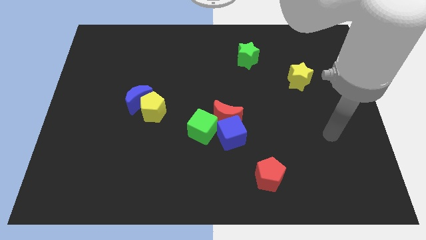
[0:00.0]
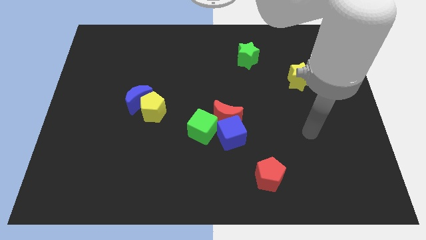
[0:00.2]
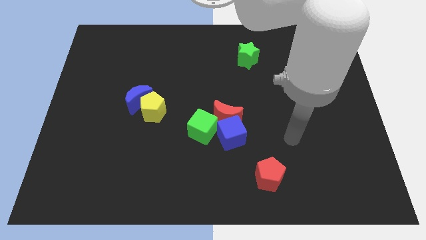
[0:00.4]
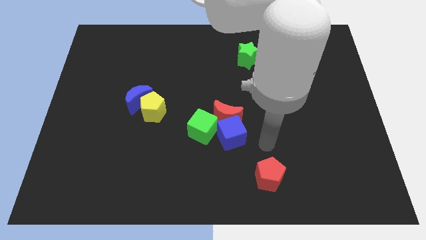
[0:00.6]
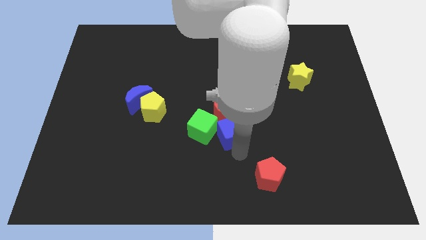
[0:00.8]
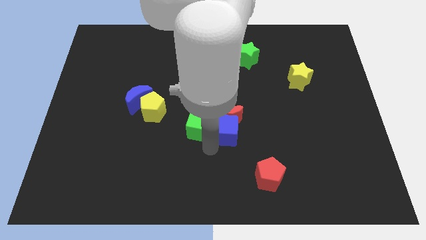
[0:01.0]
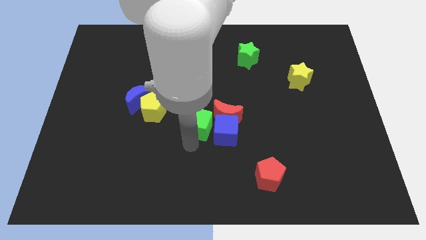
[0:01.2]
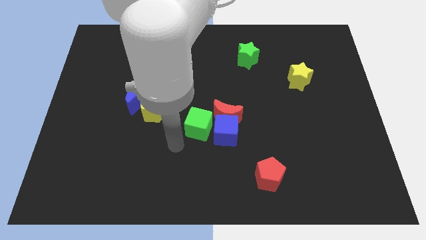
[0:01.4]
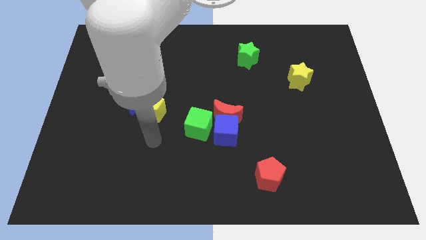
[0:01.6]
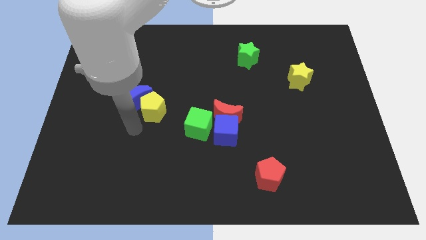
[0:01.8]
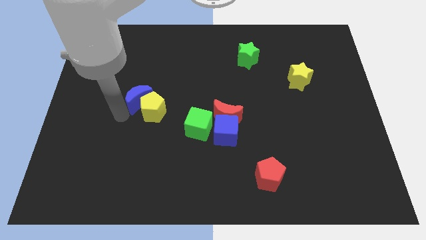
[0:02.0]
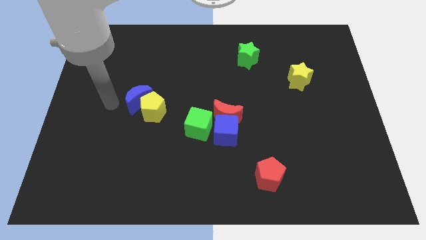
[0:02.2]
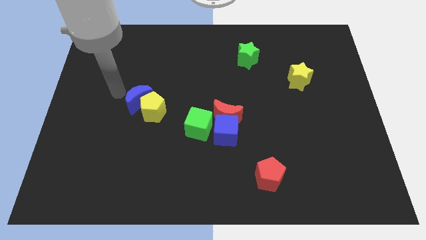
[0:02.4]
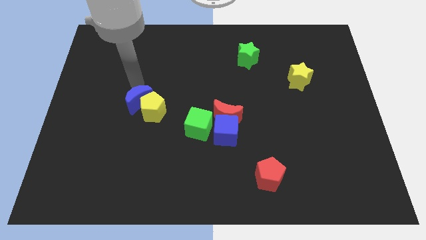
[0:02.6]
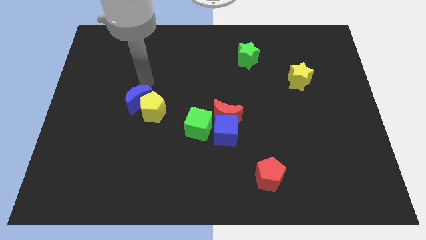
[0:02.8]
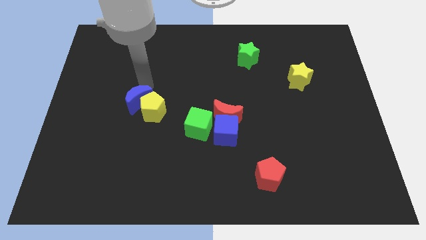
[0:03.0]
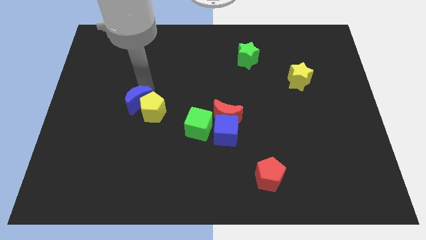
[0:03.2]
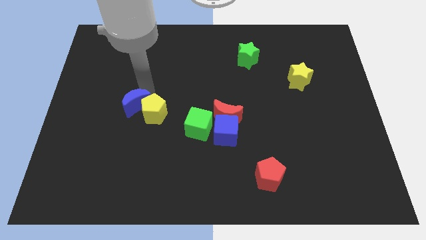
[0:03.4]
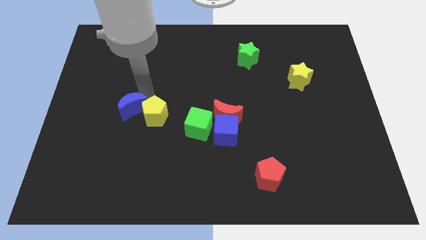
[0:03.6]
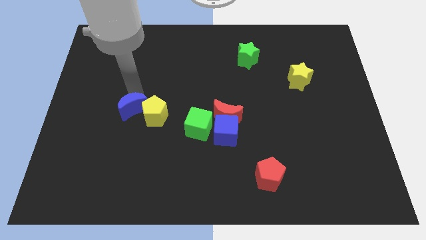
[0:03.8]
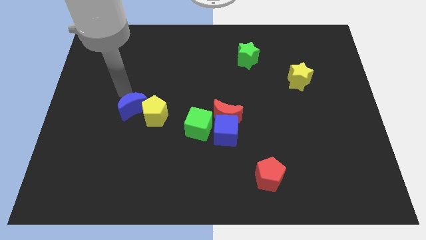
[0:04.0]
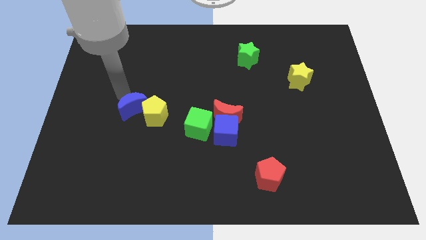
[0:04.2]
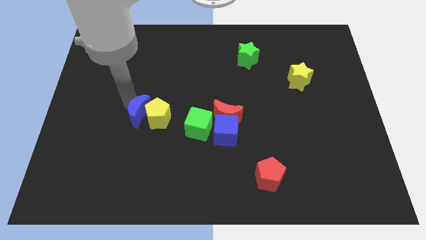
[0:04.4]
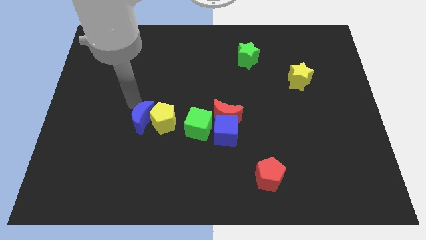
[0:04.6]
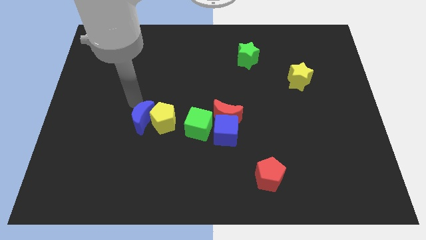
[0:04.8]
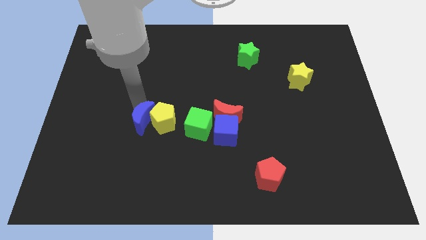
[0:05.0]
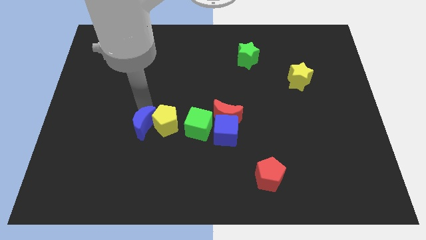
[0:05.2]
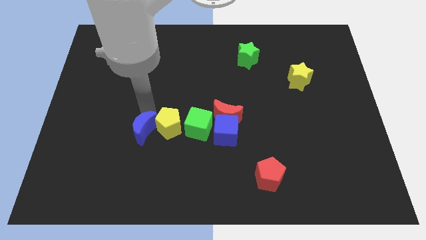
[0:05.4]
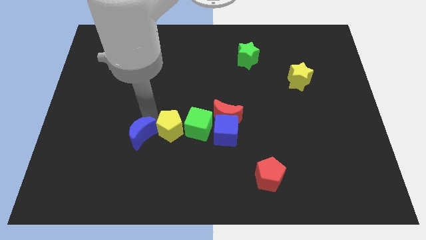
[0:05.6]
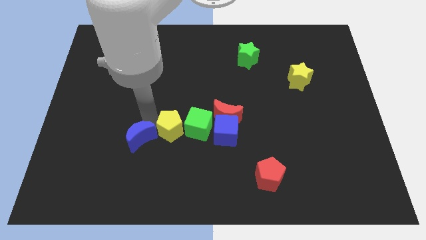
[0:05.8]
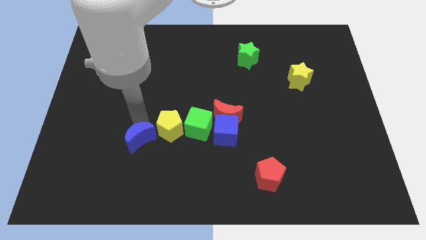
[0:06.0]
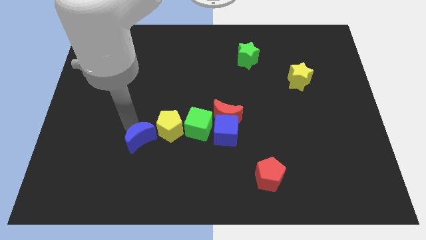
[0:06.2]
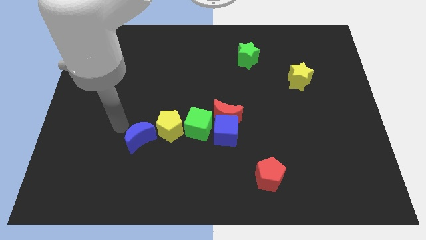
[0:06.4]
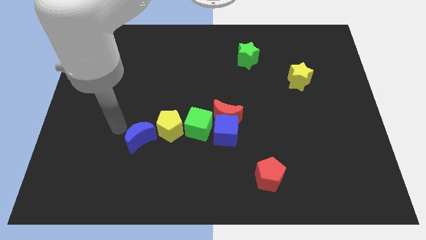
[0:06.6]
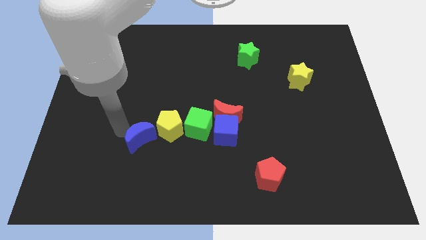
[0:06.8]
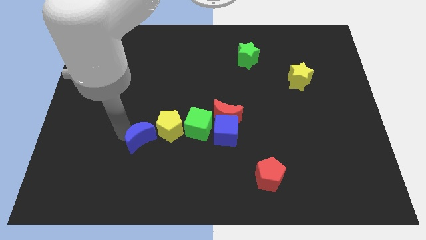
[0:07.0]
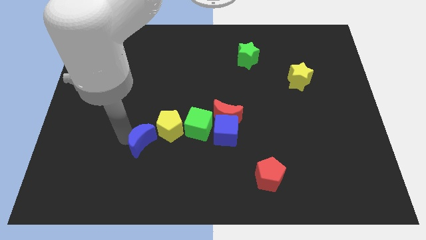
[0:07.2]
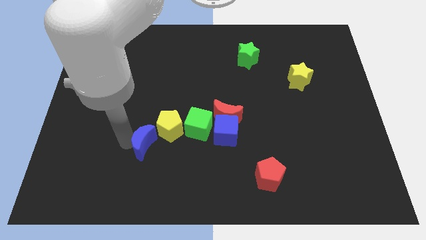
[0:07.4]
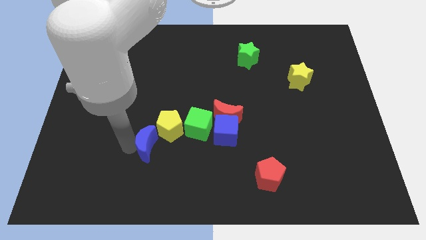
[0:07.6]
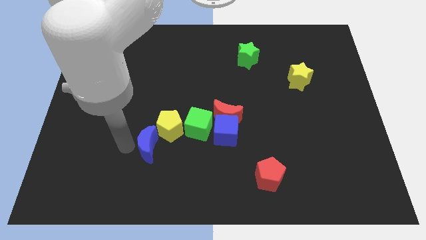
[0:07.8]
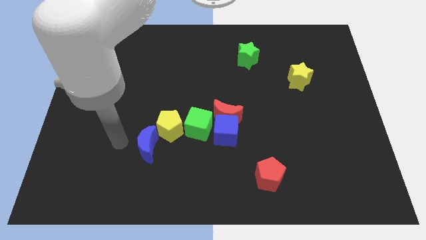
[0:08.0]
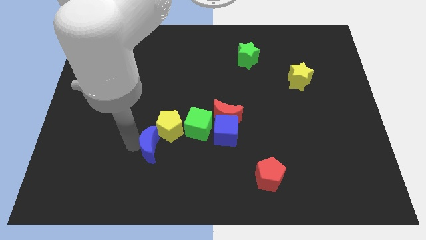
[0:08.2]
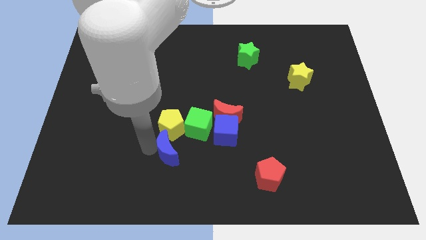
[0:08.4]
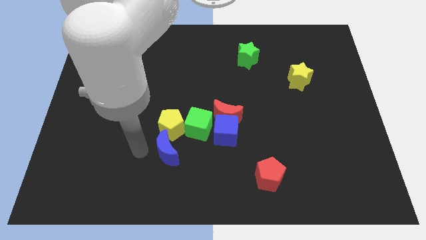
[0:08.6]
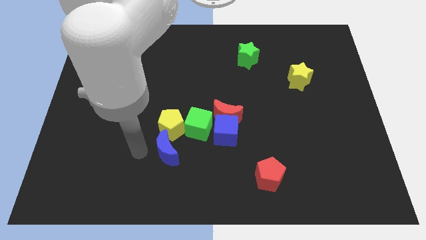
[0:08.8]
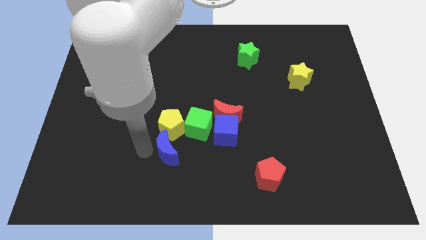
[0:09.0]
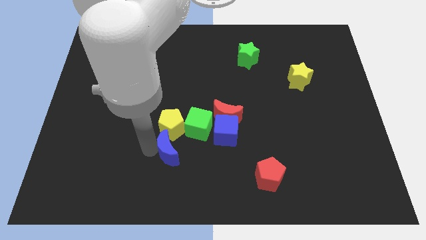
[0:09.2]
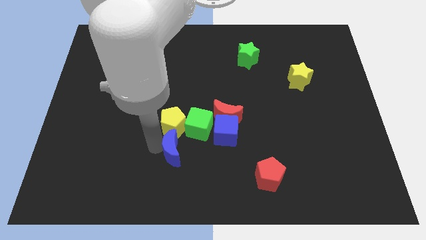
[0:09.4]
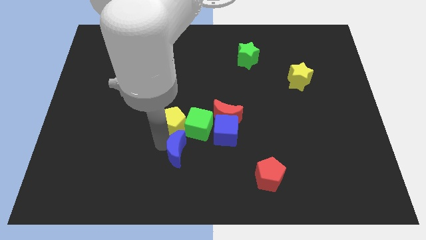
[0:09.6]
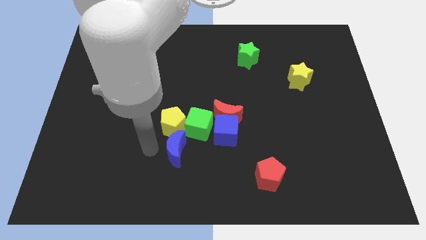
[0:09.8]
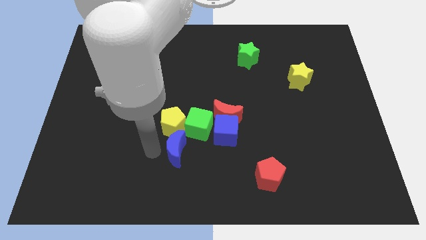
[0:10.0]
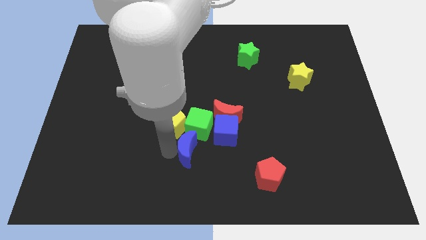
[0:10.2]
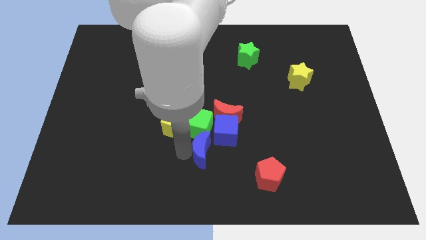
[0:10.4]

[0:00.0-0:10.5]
move the blue moon to the bottom right side of the green cube

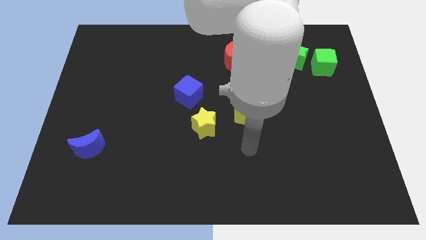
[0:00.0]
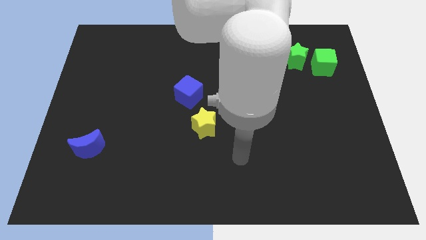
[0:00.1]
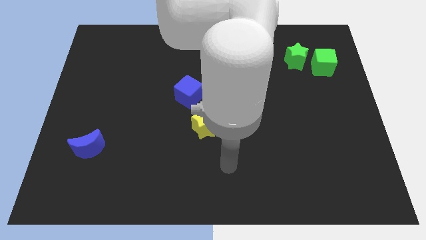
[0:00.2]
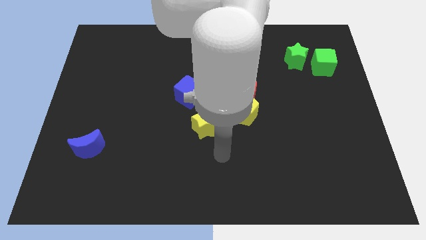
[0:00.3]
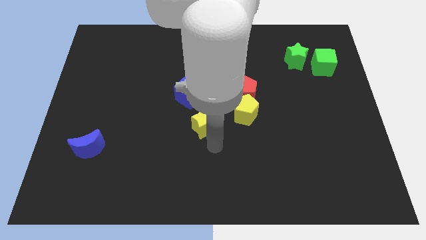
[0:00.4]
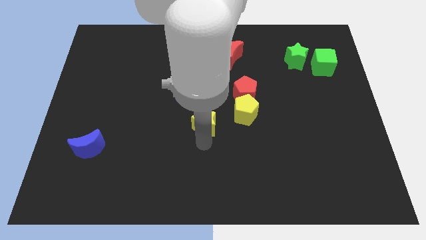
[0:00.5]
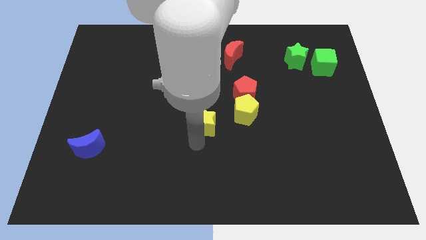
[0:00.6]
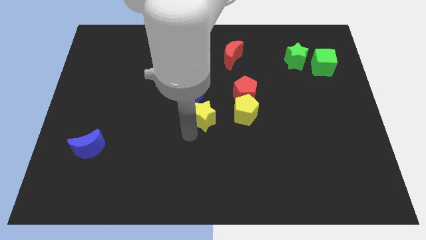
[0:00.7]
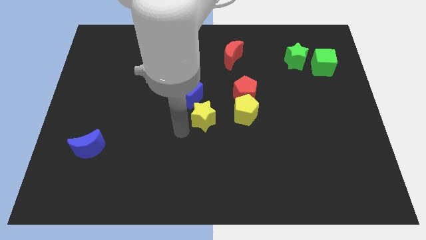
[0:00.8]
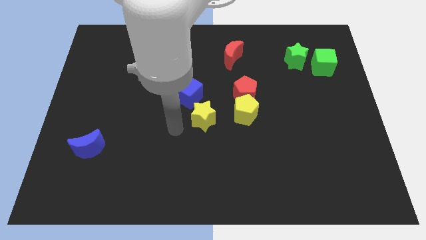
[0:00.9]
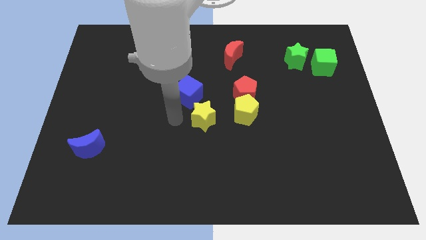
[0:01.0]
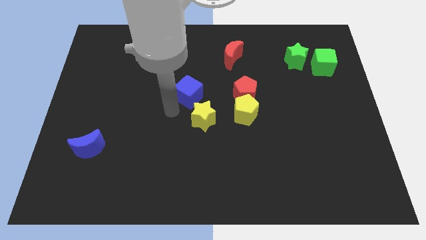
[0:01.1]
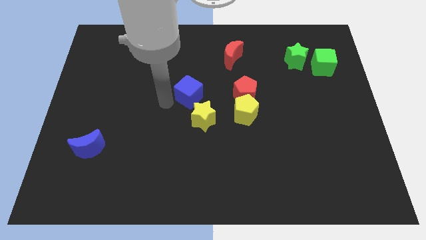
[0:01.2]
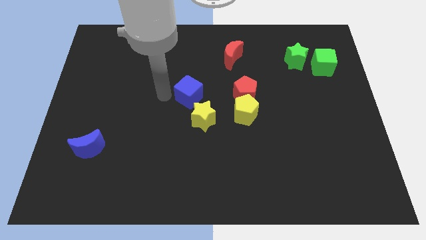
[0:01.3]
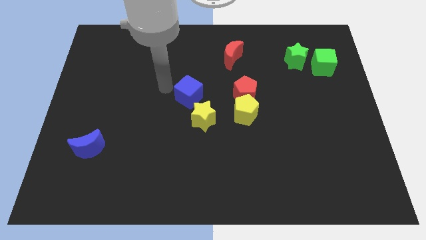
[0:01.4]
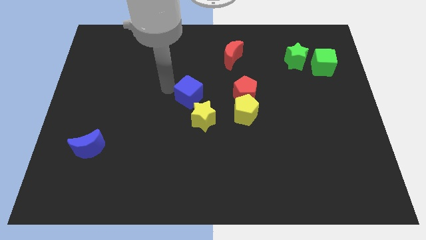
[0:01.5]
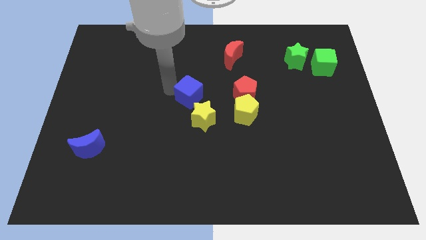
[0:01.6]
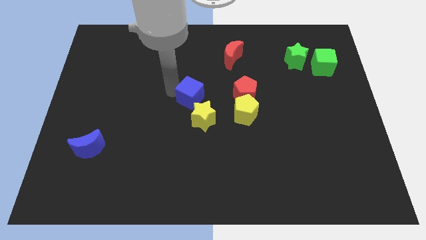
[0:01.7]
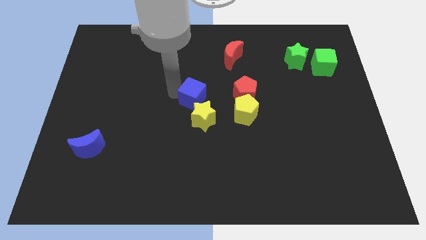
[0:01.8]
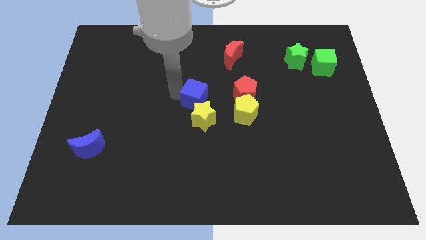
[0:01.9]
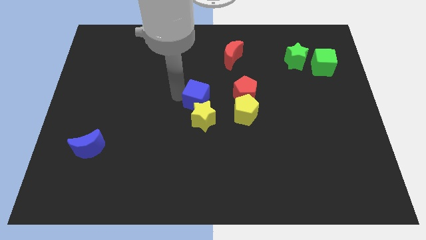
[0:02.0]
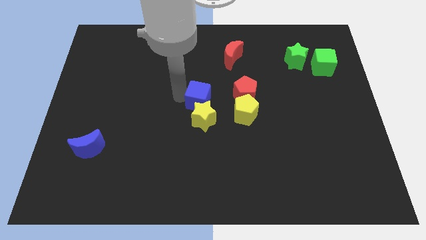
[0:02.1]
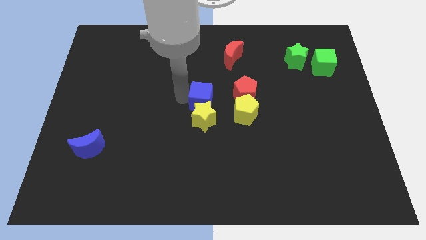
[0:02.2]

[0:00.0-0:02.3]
put the blue cube diagonally up and to the right of the yellow star
